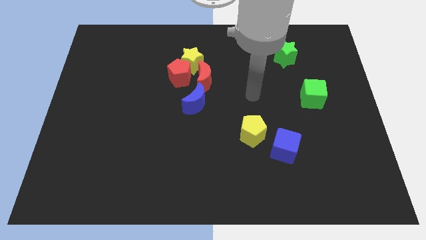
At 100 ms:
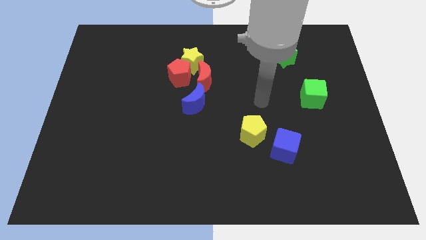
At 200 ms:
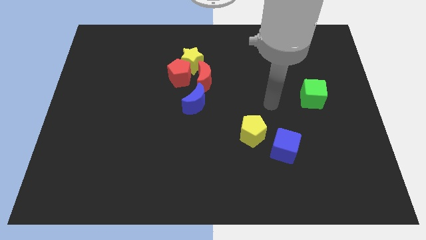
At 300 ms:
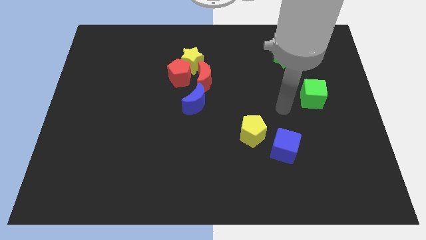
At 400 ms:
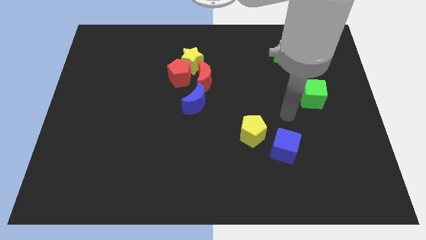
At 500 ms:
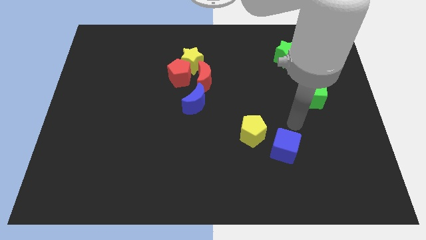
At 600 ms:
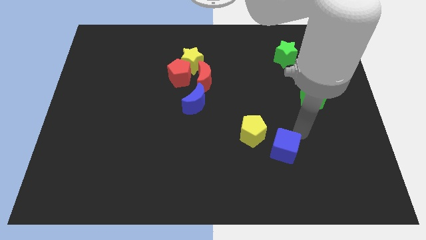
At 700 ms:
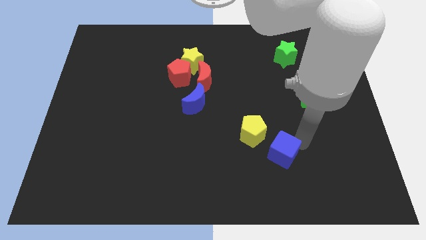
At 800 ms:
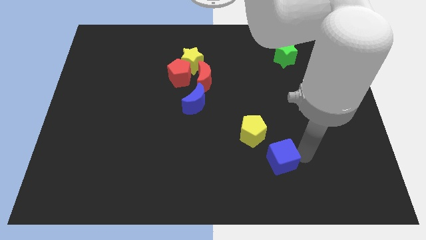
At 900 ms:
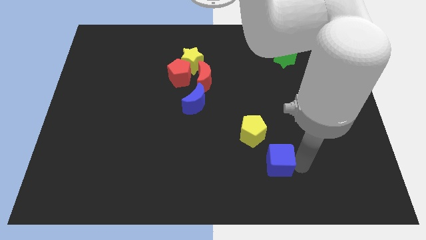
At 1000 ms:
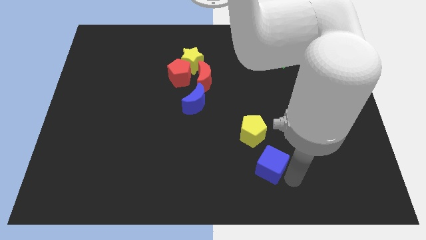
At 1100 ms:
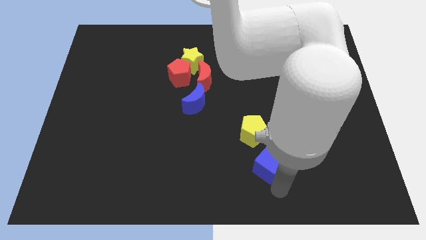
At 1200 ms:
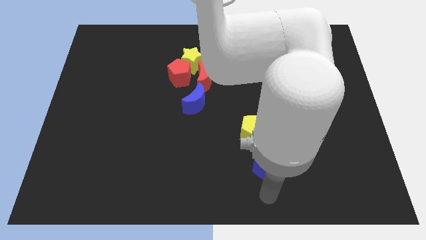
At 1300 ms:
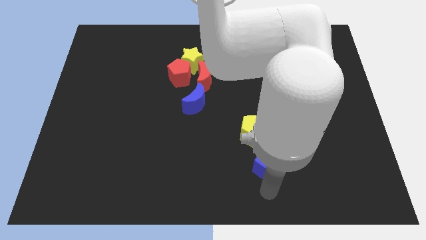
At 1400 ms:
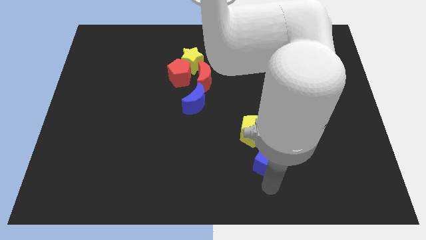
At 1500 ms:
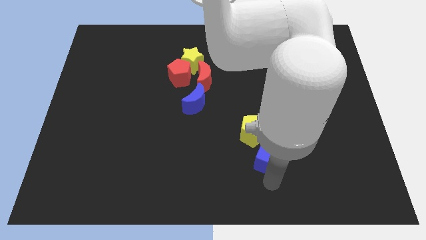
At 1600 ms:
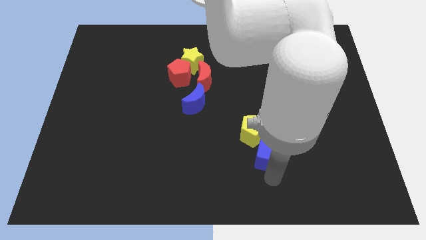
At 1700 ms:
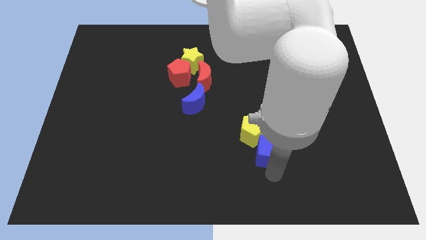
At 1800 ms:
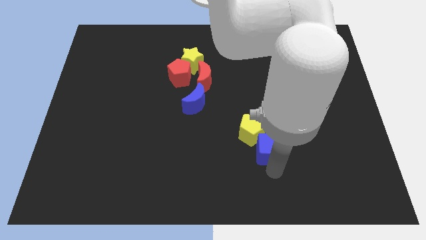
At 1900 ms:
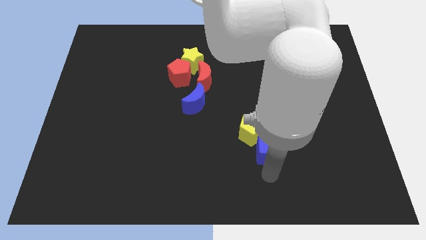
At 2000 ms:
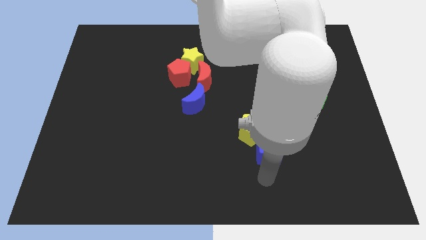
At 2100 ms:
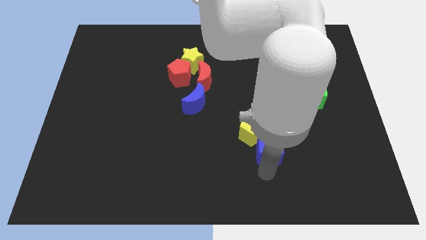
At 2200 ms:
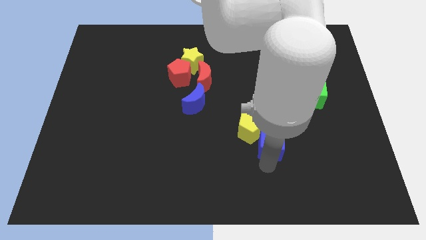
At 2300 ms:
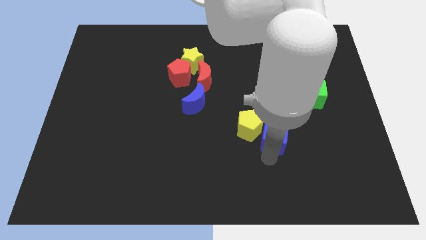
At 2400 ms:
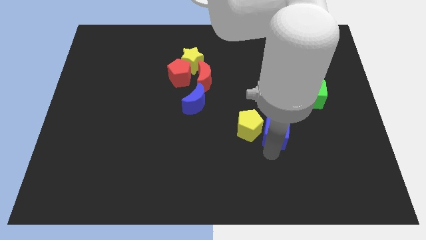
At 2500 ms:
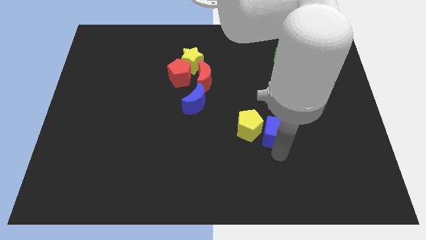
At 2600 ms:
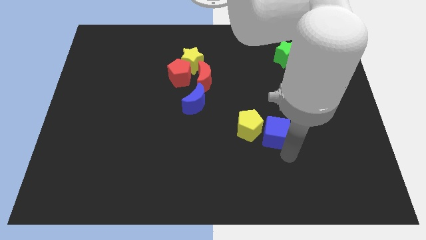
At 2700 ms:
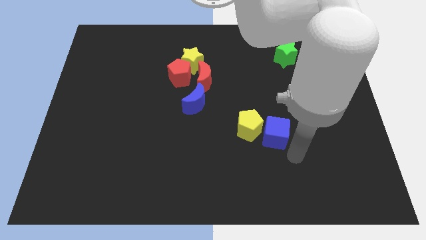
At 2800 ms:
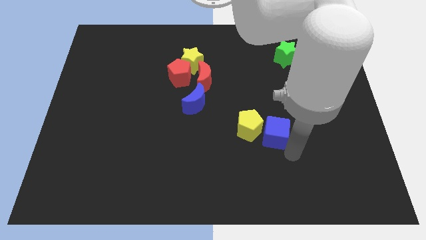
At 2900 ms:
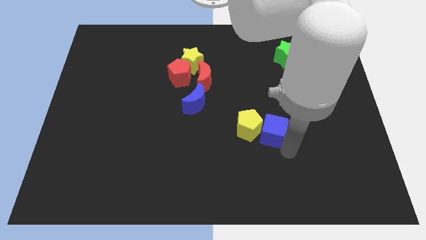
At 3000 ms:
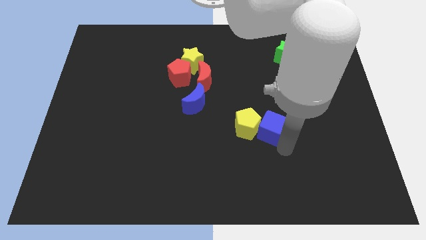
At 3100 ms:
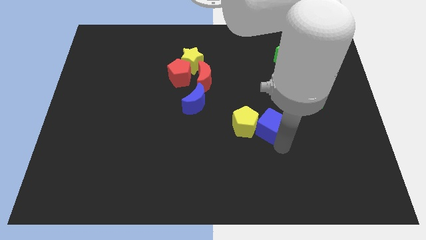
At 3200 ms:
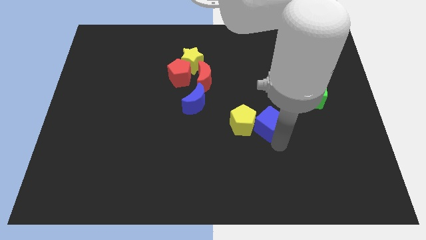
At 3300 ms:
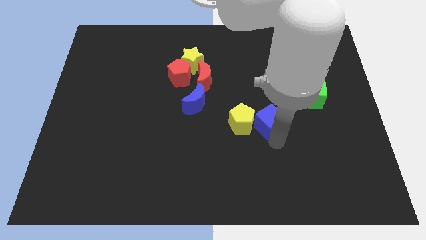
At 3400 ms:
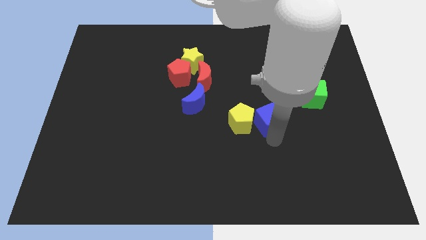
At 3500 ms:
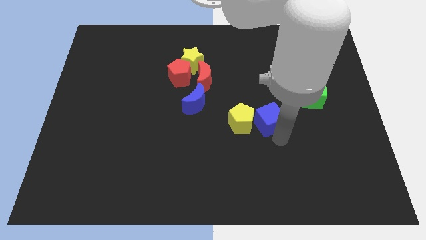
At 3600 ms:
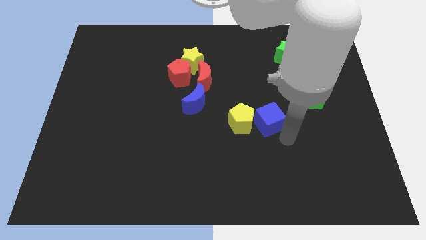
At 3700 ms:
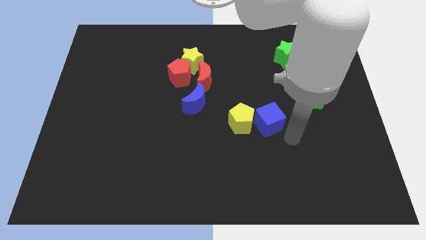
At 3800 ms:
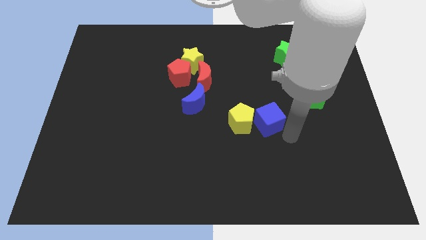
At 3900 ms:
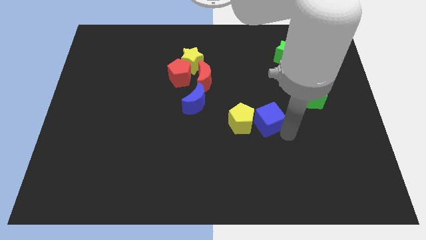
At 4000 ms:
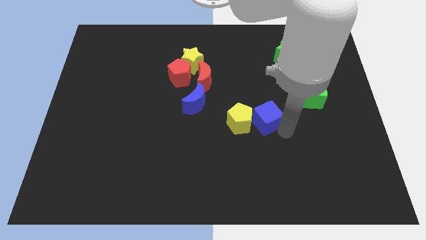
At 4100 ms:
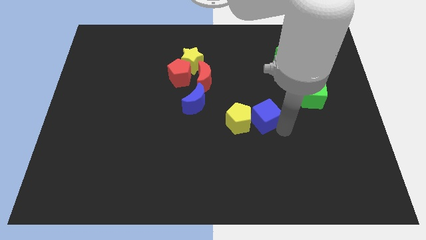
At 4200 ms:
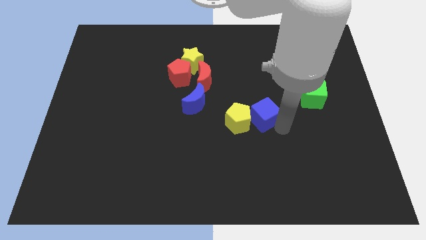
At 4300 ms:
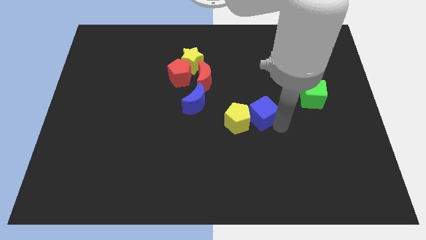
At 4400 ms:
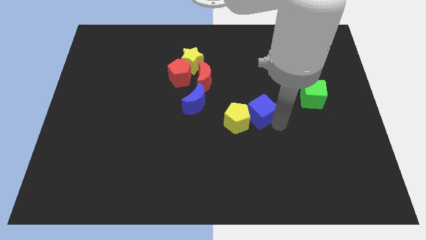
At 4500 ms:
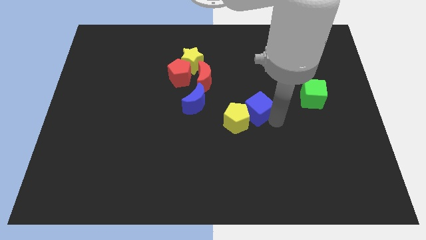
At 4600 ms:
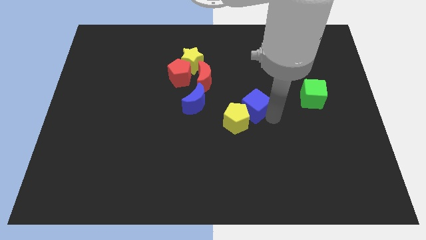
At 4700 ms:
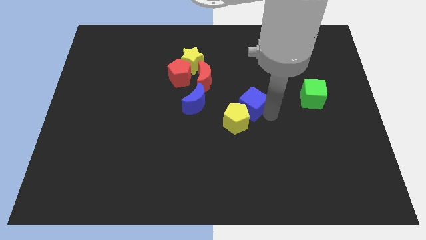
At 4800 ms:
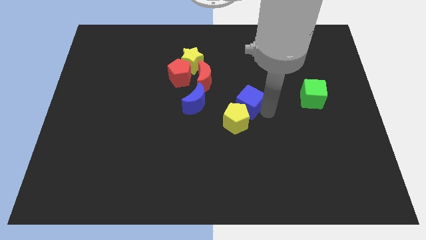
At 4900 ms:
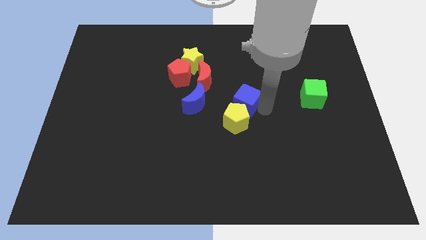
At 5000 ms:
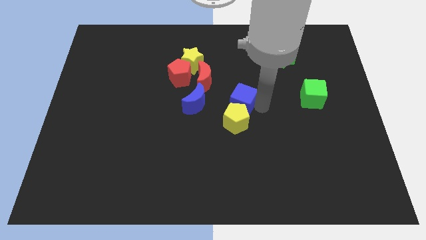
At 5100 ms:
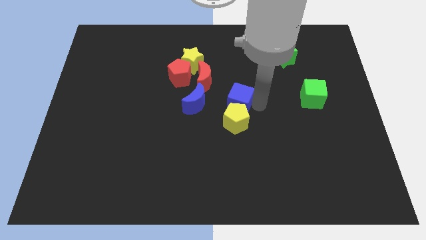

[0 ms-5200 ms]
put the blue cube diagonally up and to the left of the yellow pentagon

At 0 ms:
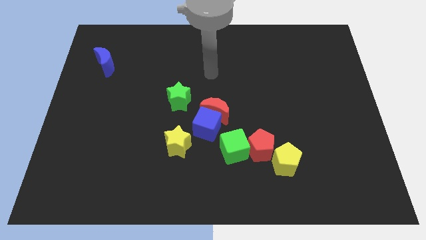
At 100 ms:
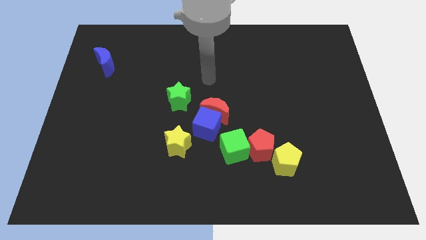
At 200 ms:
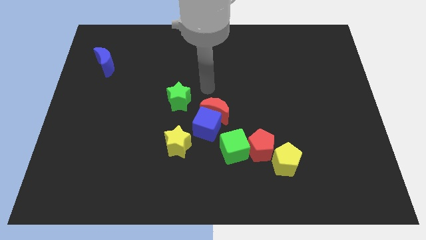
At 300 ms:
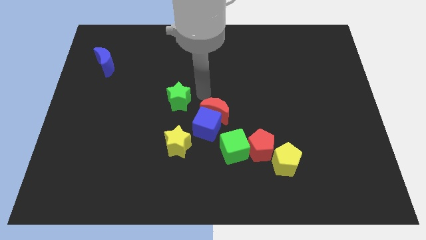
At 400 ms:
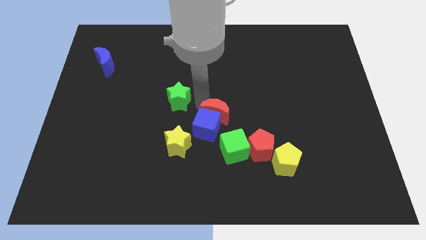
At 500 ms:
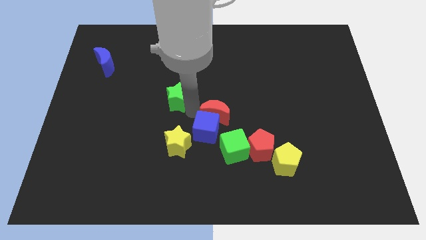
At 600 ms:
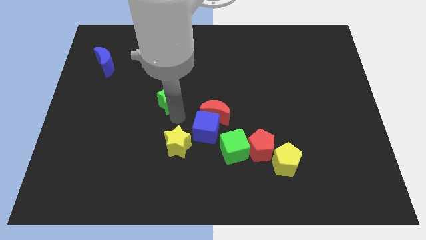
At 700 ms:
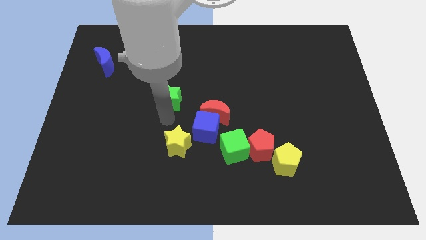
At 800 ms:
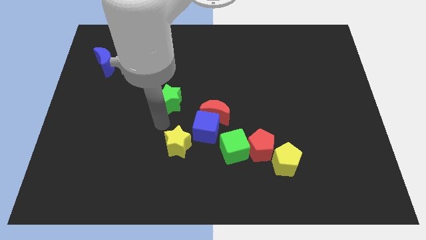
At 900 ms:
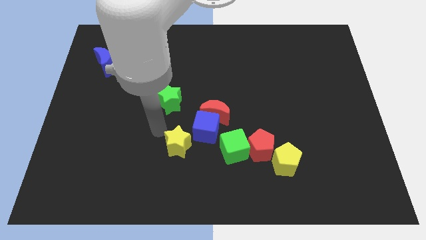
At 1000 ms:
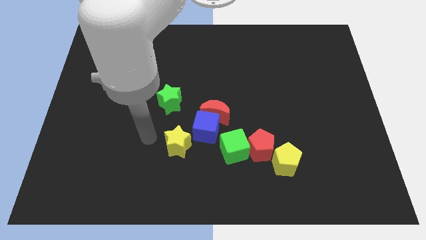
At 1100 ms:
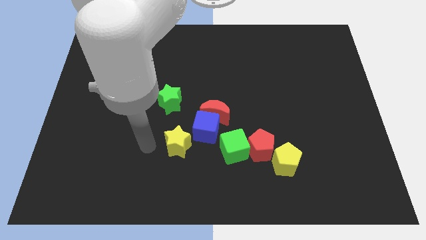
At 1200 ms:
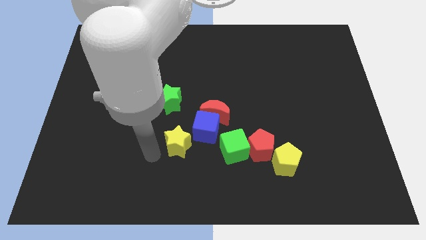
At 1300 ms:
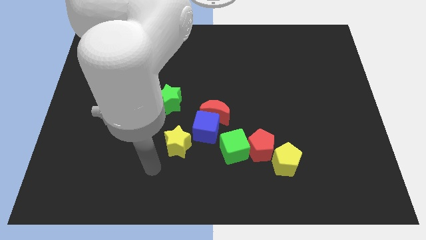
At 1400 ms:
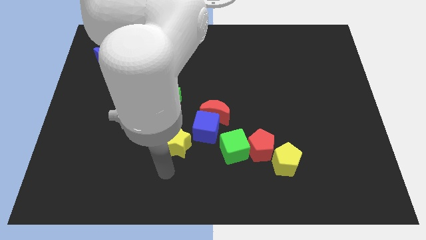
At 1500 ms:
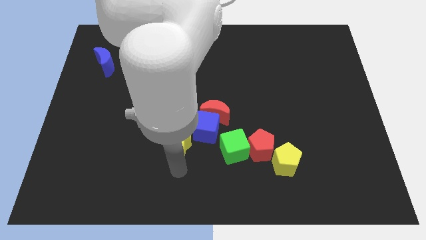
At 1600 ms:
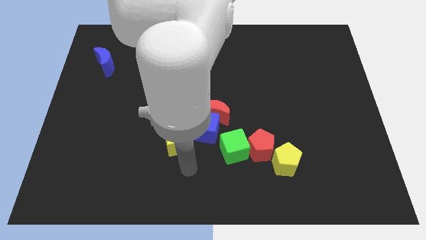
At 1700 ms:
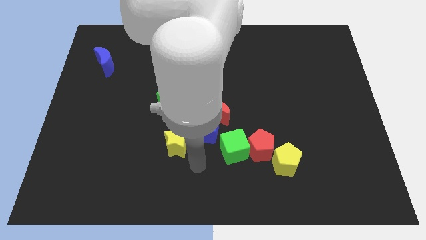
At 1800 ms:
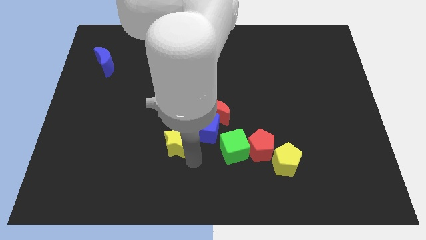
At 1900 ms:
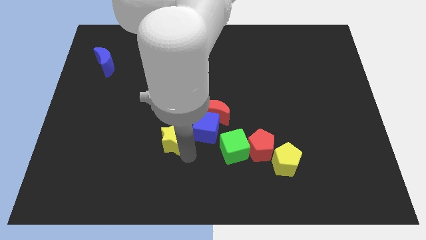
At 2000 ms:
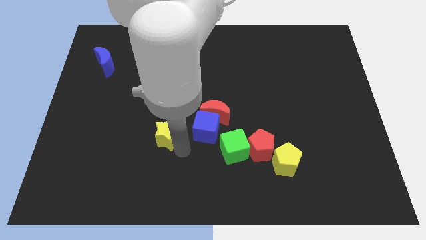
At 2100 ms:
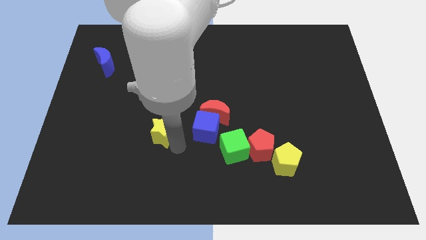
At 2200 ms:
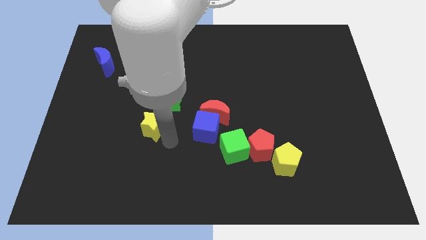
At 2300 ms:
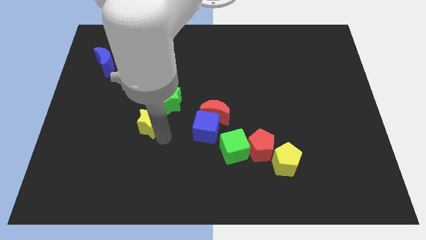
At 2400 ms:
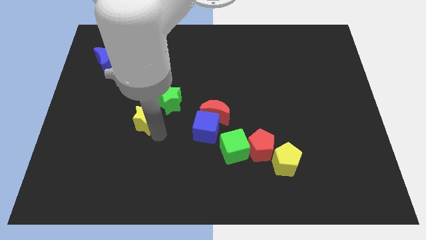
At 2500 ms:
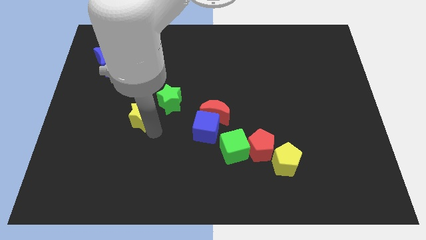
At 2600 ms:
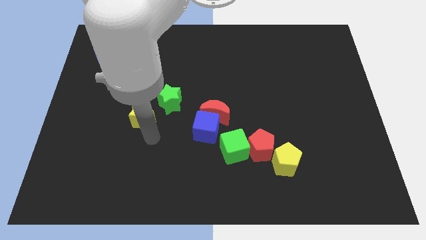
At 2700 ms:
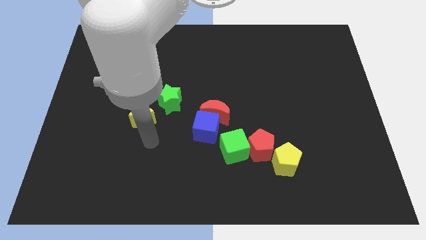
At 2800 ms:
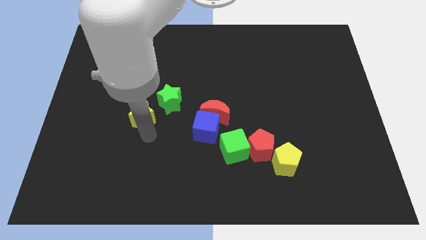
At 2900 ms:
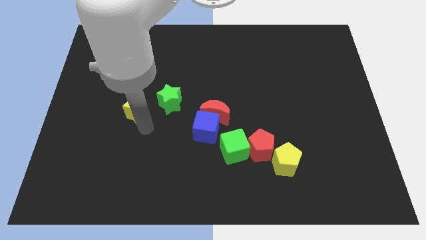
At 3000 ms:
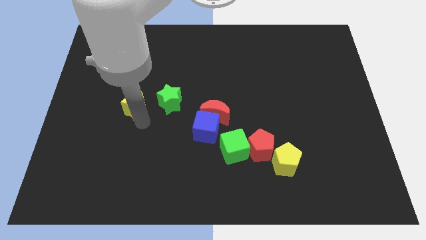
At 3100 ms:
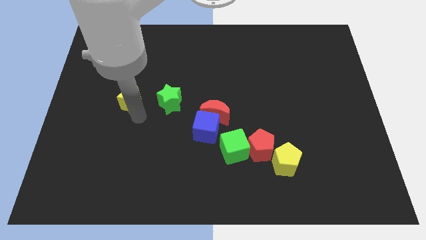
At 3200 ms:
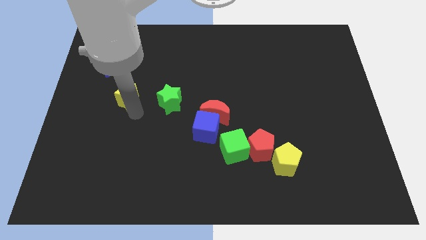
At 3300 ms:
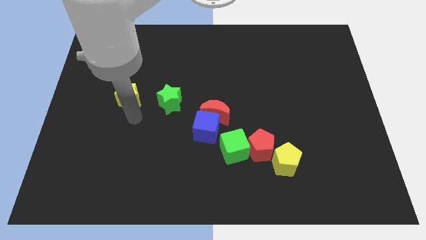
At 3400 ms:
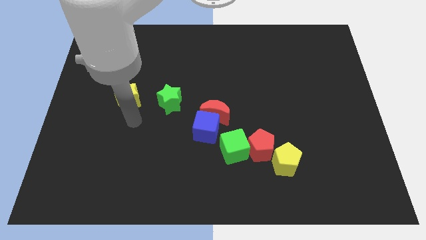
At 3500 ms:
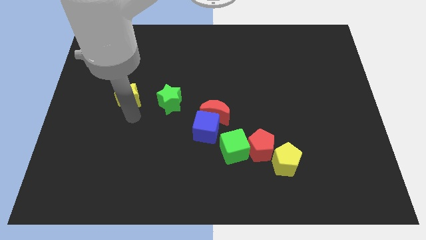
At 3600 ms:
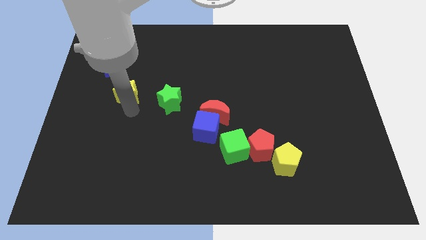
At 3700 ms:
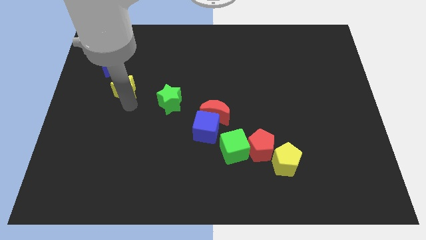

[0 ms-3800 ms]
slide the yellow star diagonally down and to the right of the blue moon
